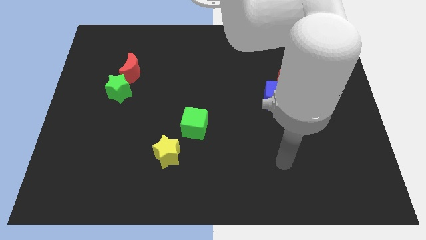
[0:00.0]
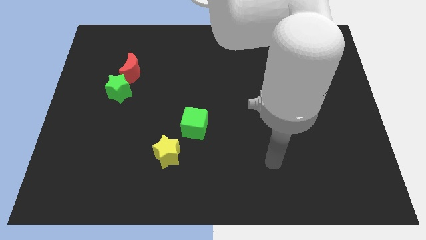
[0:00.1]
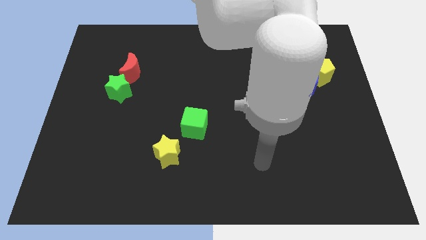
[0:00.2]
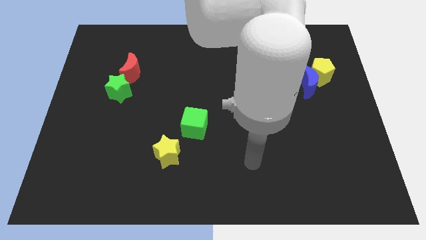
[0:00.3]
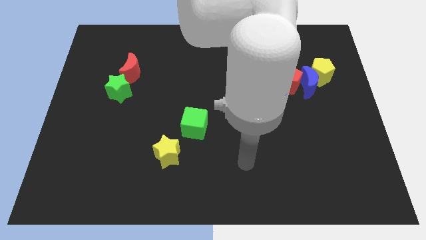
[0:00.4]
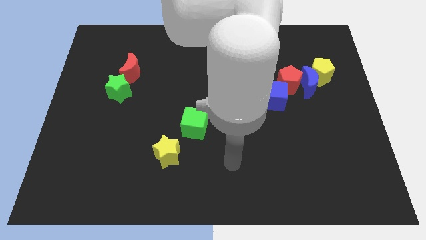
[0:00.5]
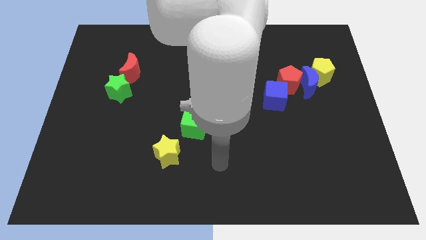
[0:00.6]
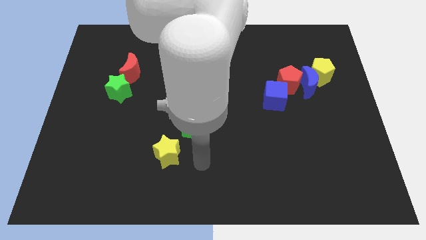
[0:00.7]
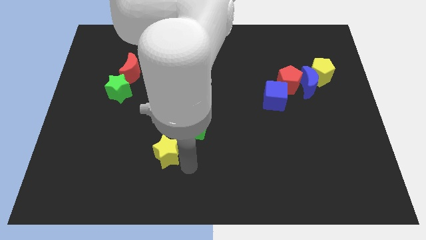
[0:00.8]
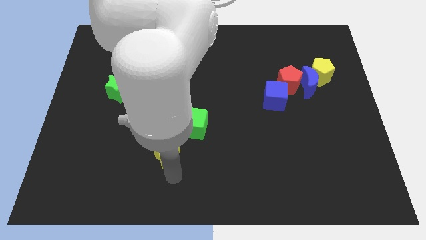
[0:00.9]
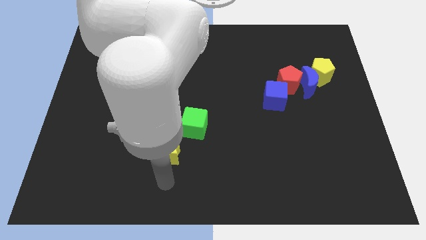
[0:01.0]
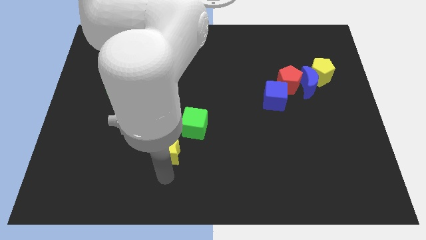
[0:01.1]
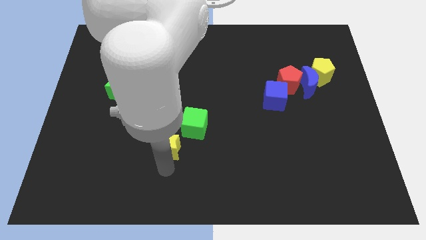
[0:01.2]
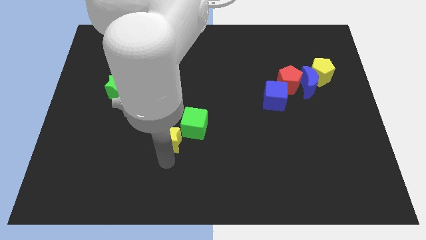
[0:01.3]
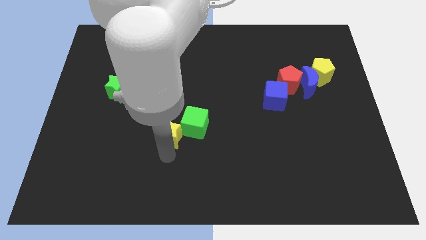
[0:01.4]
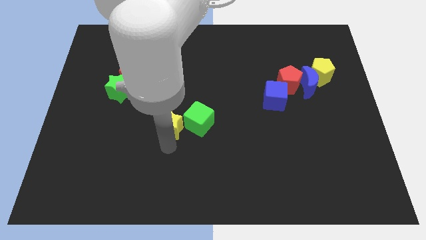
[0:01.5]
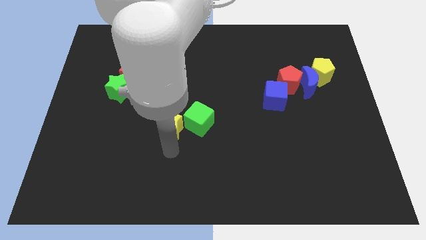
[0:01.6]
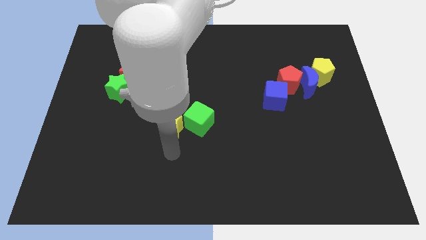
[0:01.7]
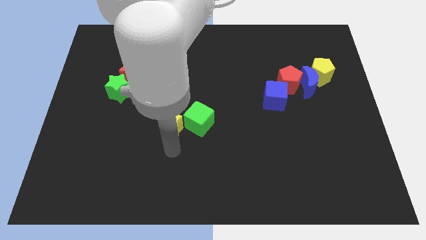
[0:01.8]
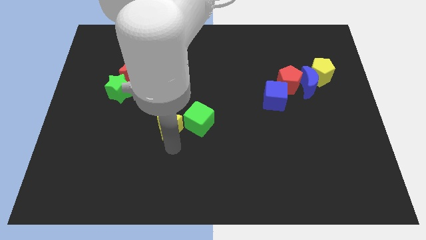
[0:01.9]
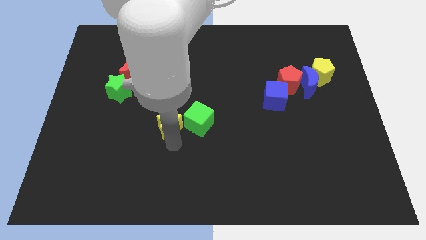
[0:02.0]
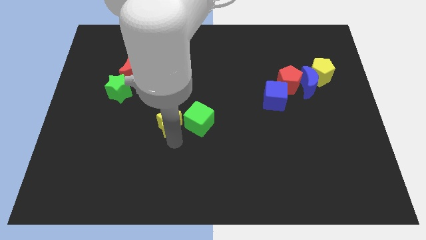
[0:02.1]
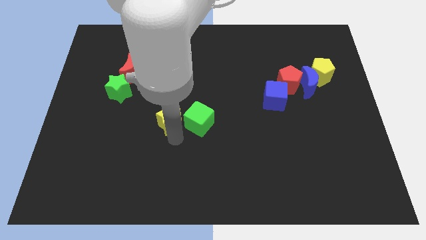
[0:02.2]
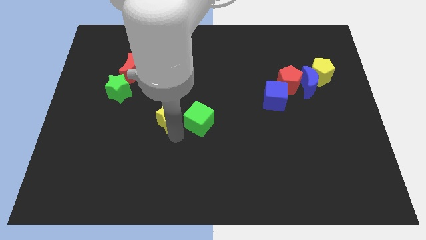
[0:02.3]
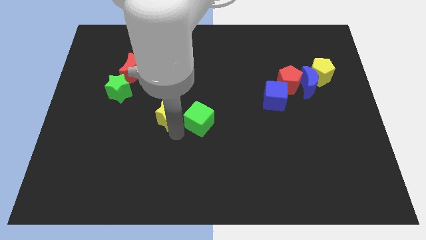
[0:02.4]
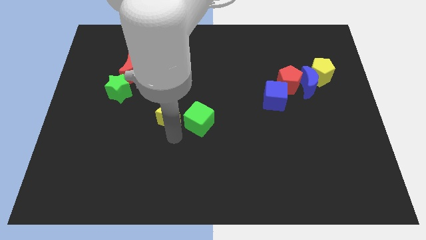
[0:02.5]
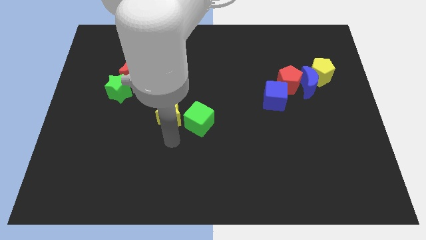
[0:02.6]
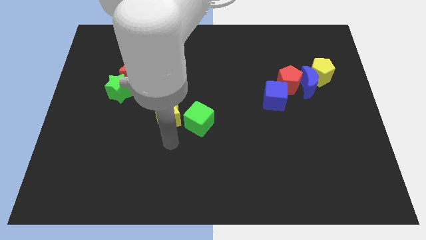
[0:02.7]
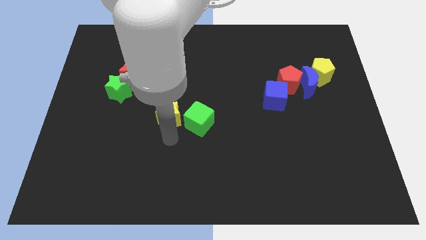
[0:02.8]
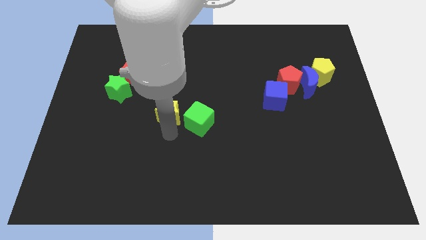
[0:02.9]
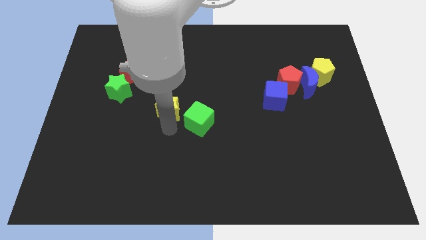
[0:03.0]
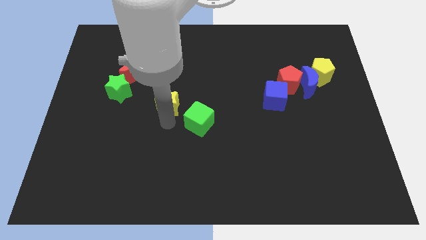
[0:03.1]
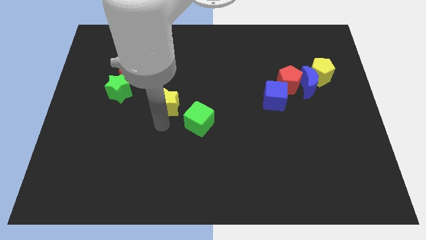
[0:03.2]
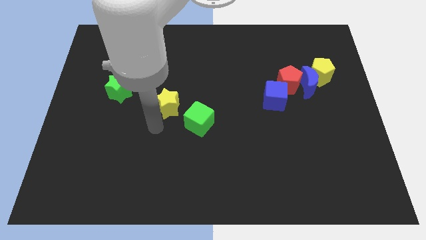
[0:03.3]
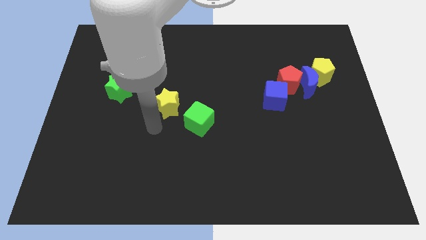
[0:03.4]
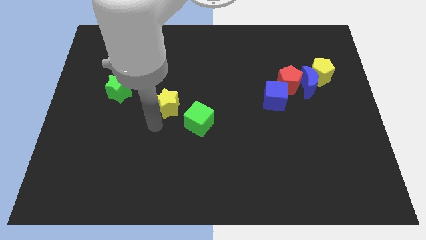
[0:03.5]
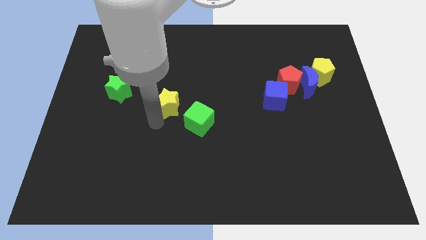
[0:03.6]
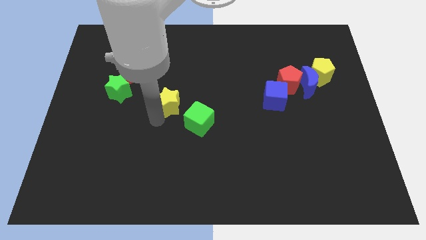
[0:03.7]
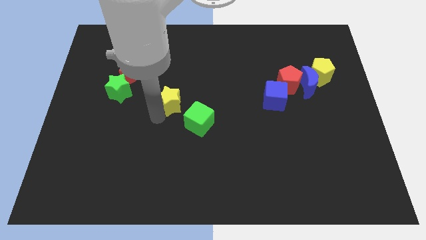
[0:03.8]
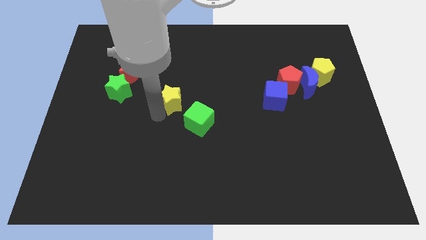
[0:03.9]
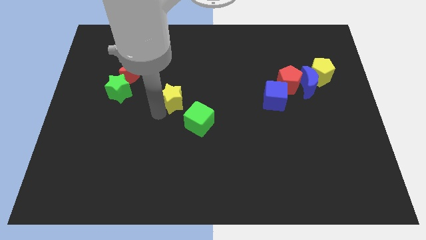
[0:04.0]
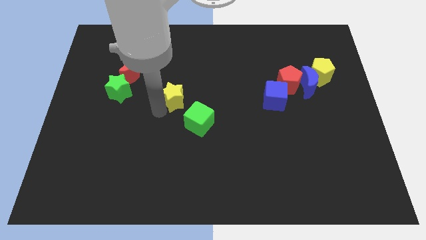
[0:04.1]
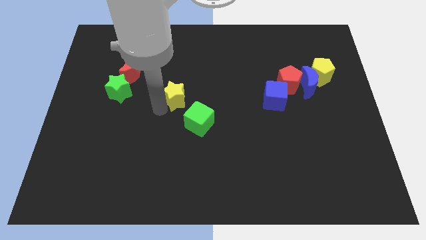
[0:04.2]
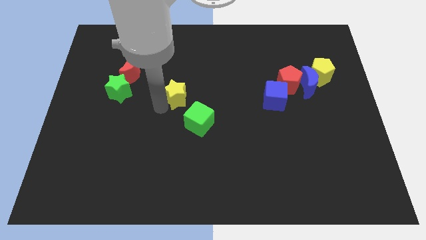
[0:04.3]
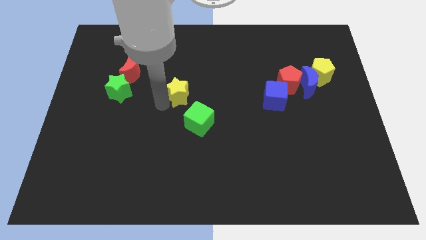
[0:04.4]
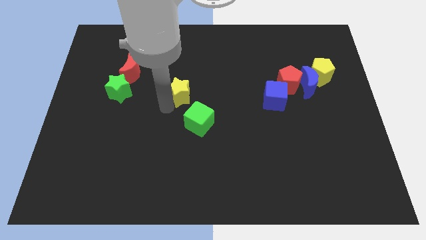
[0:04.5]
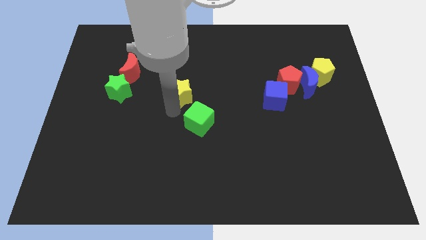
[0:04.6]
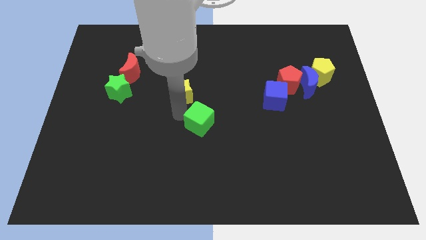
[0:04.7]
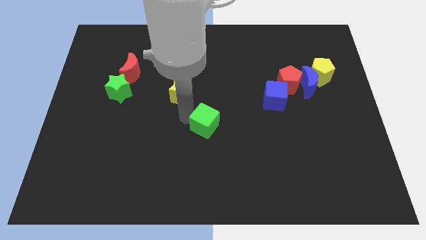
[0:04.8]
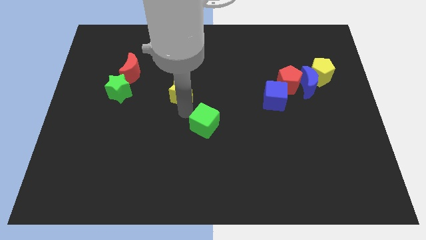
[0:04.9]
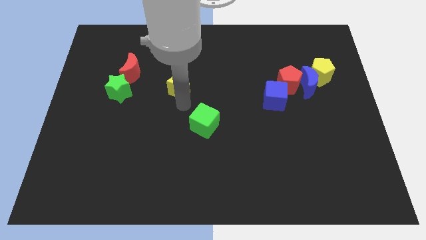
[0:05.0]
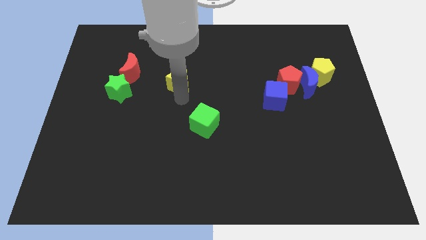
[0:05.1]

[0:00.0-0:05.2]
push the yellow star just right of the red moon

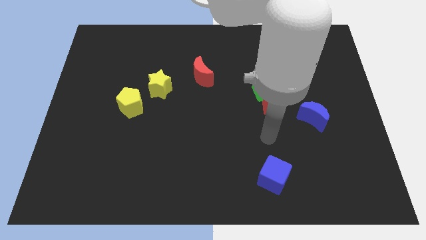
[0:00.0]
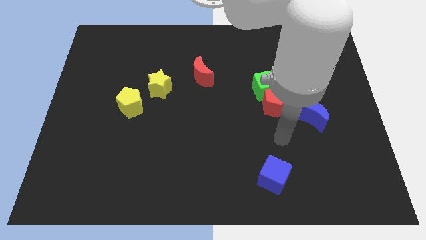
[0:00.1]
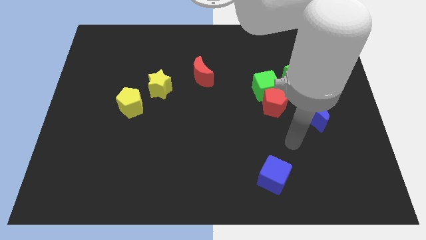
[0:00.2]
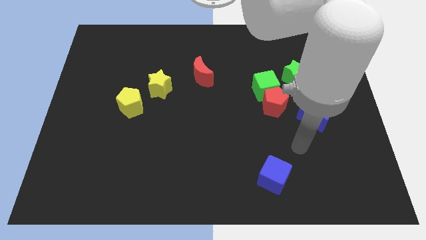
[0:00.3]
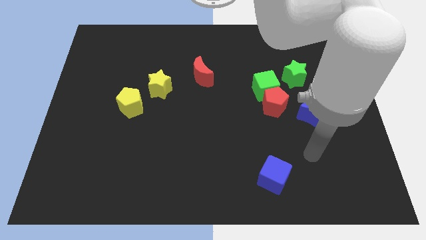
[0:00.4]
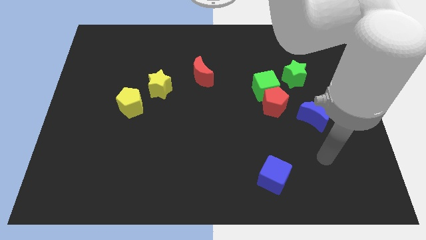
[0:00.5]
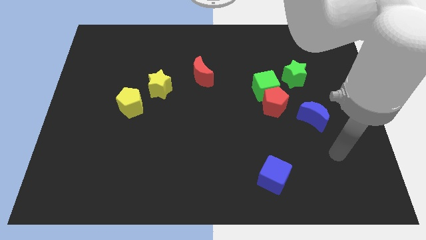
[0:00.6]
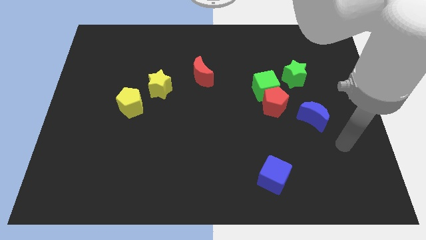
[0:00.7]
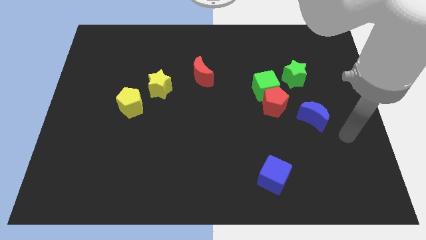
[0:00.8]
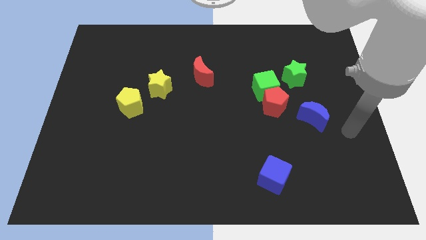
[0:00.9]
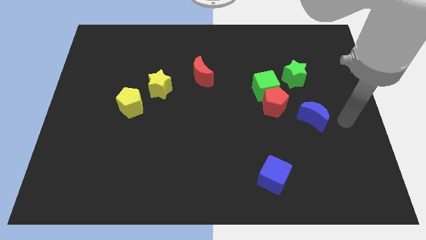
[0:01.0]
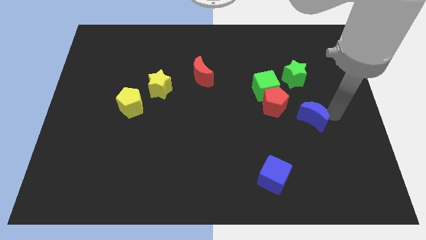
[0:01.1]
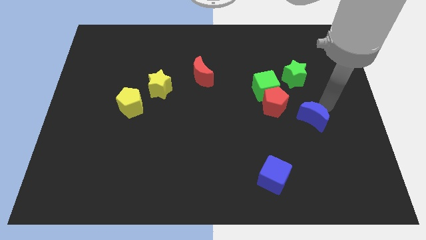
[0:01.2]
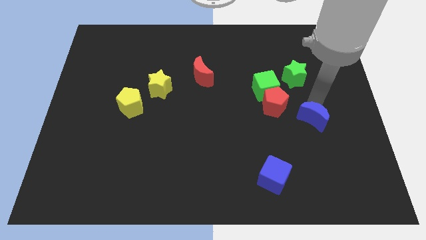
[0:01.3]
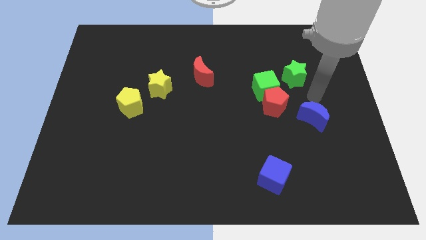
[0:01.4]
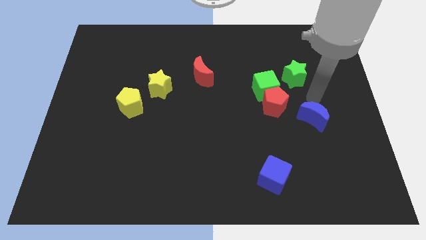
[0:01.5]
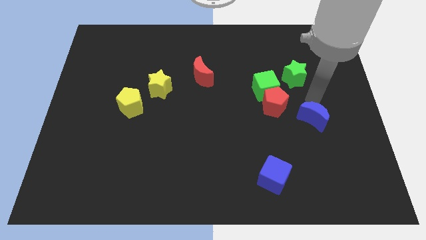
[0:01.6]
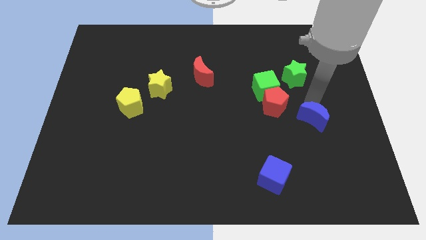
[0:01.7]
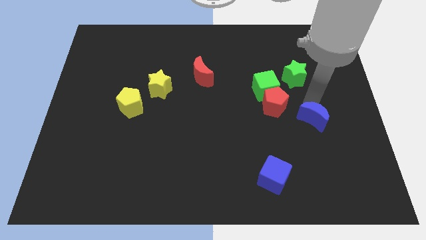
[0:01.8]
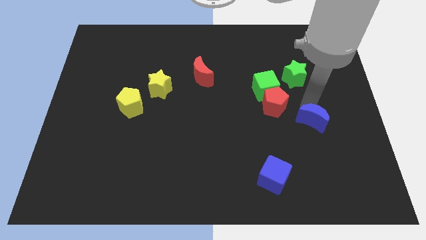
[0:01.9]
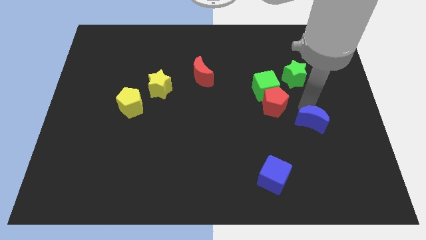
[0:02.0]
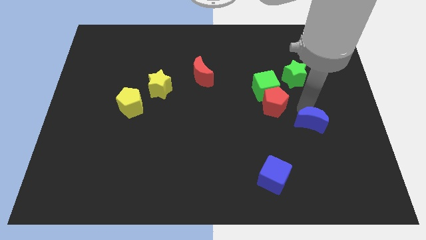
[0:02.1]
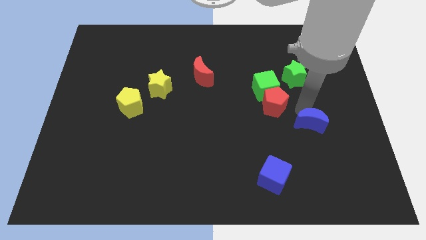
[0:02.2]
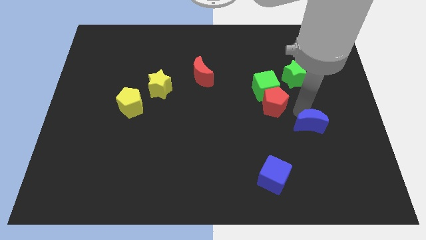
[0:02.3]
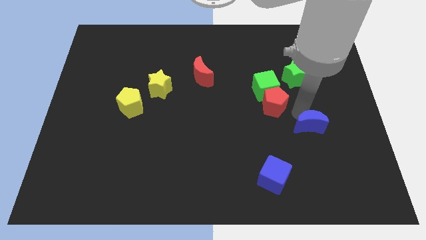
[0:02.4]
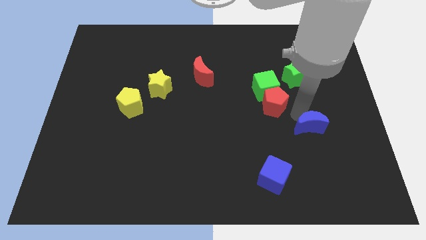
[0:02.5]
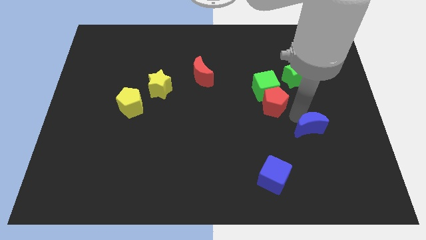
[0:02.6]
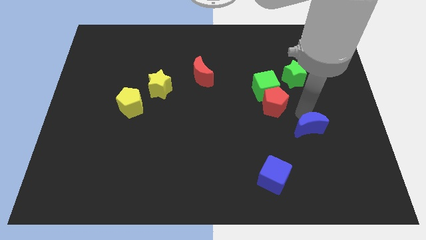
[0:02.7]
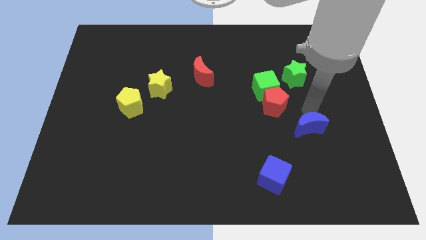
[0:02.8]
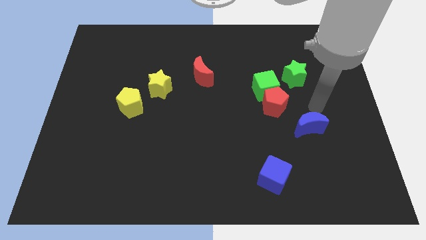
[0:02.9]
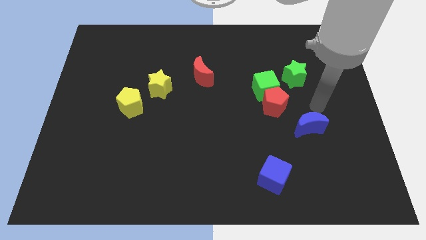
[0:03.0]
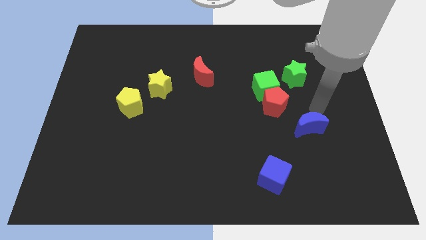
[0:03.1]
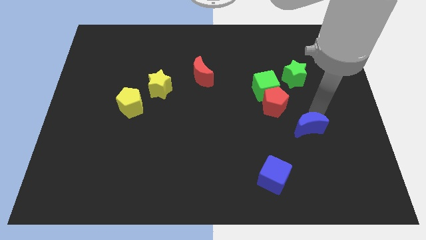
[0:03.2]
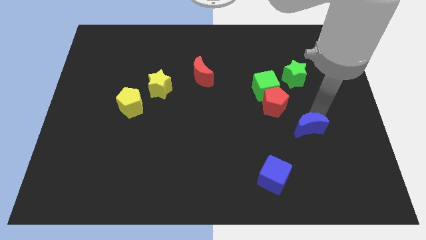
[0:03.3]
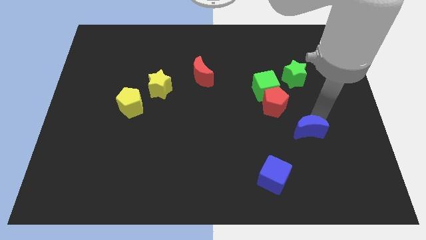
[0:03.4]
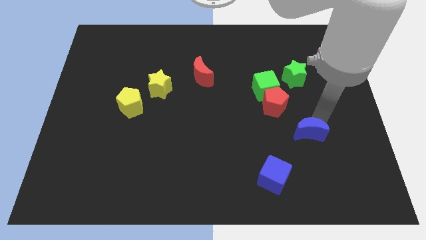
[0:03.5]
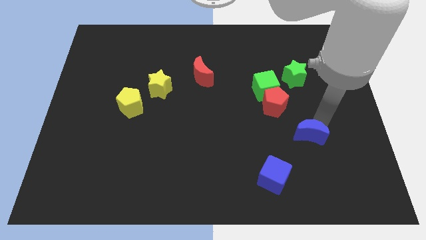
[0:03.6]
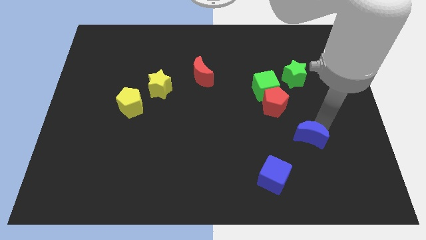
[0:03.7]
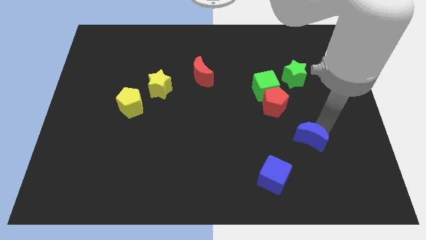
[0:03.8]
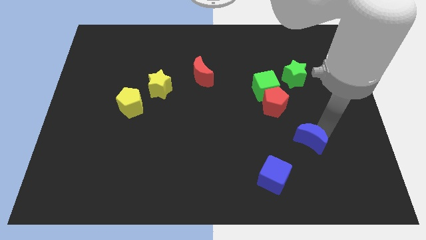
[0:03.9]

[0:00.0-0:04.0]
put the blue moon to the top right of the blue cube
